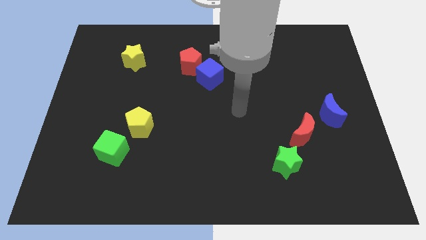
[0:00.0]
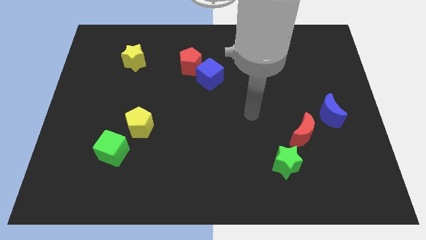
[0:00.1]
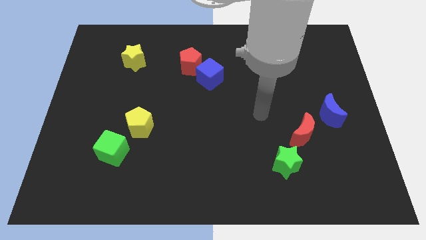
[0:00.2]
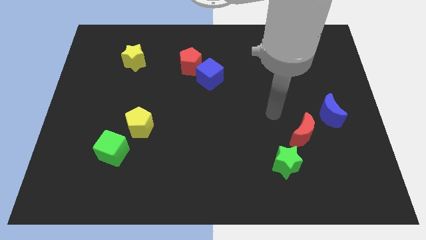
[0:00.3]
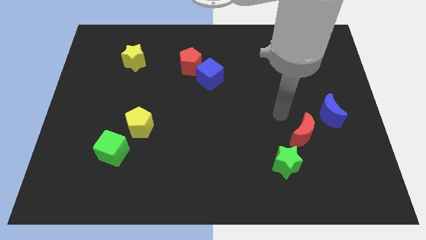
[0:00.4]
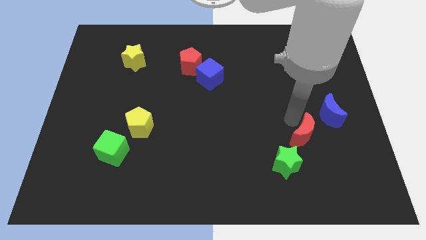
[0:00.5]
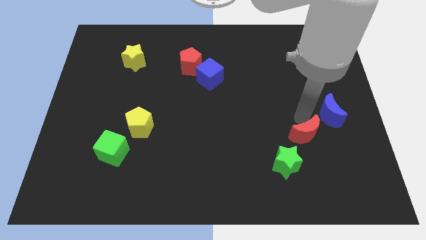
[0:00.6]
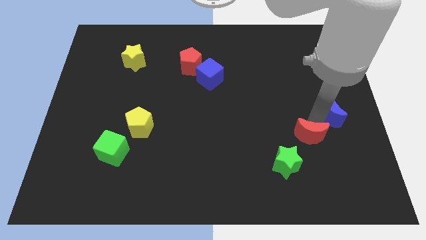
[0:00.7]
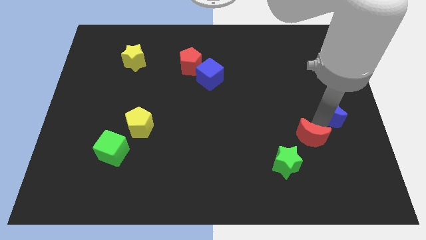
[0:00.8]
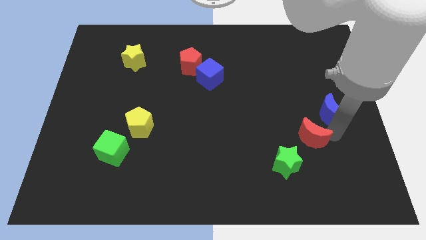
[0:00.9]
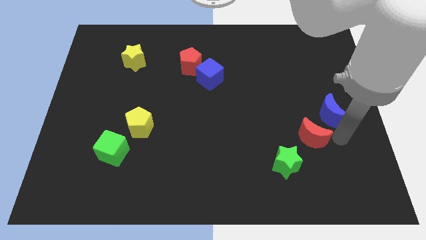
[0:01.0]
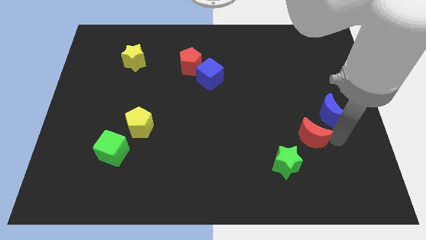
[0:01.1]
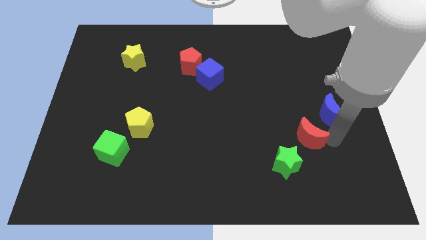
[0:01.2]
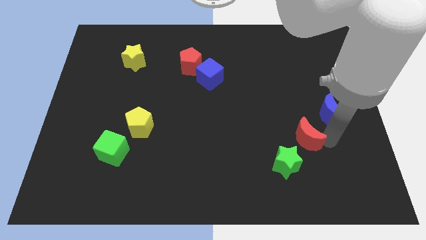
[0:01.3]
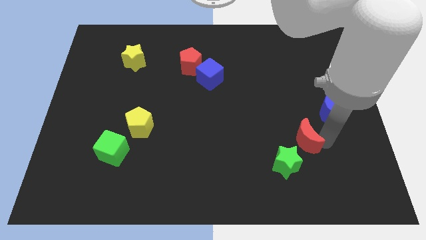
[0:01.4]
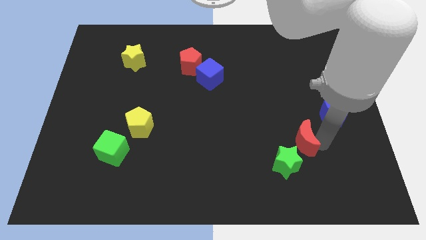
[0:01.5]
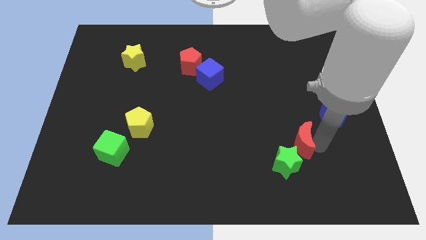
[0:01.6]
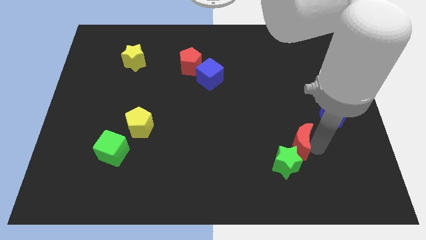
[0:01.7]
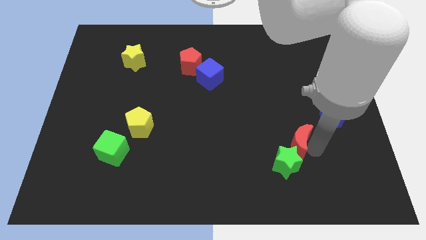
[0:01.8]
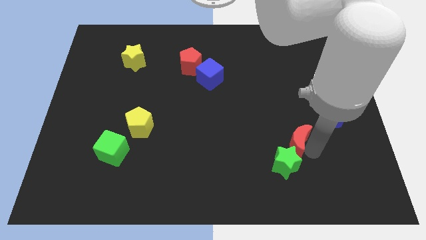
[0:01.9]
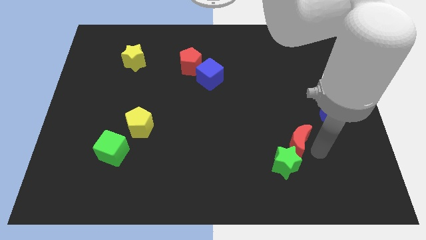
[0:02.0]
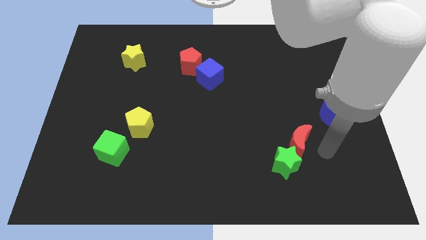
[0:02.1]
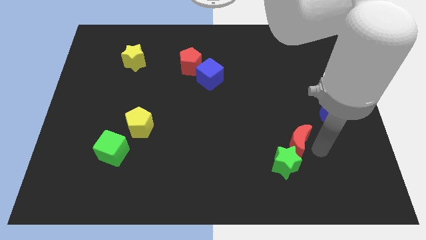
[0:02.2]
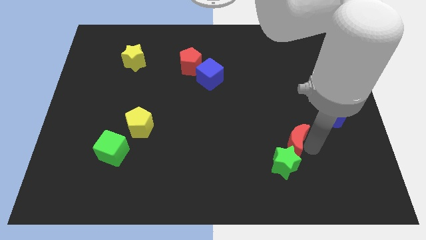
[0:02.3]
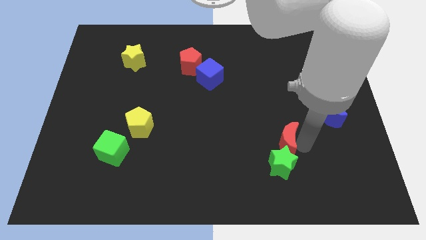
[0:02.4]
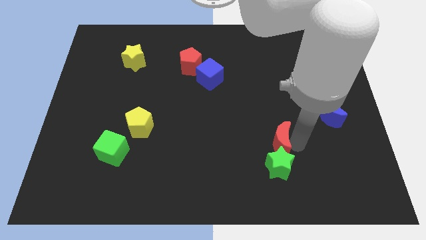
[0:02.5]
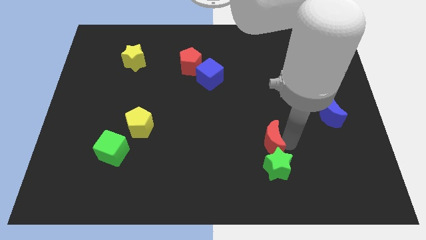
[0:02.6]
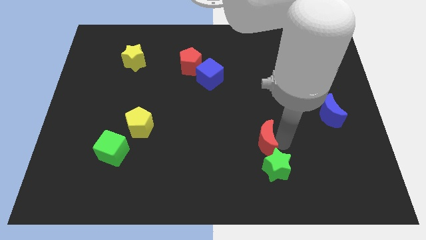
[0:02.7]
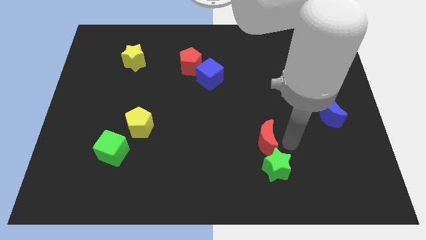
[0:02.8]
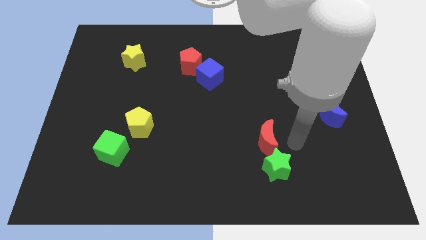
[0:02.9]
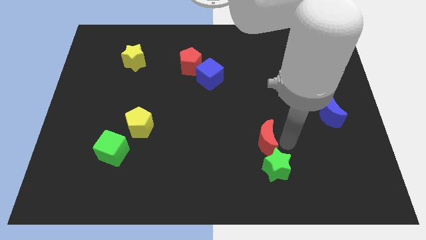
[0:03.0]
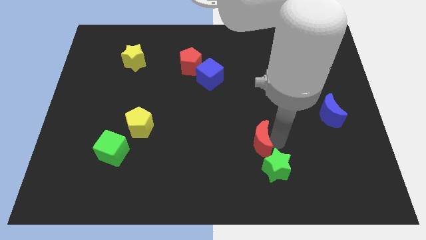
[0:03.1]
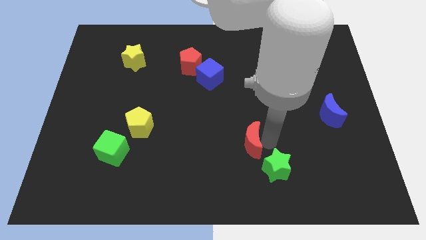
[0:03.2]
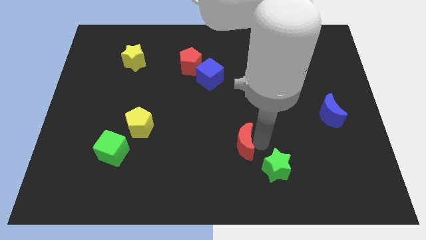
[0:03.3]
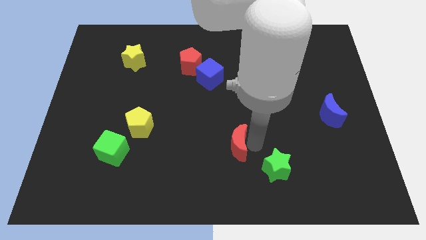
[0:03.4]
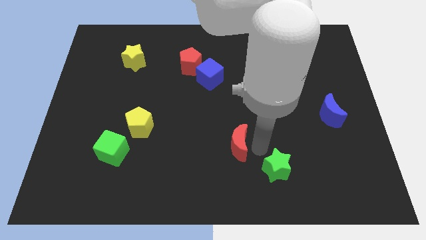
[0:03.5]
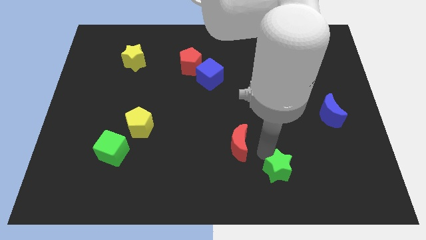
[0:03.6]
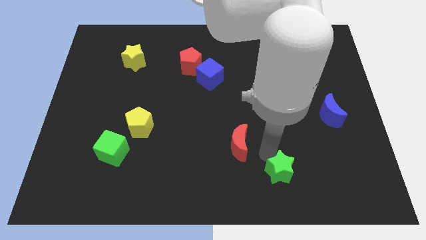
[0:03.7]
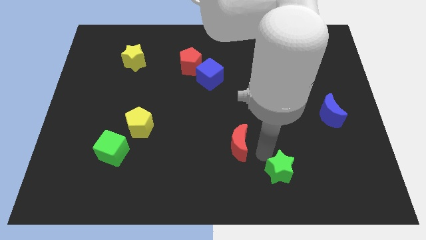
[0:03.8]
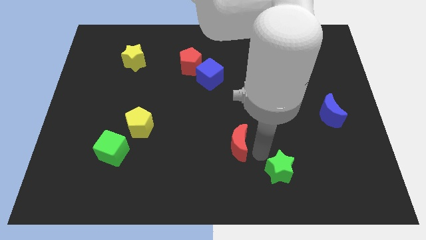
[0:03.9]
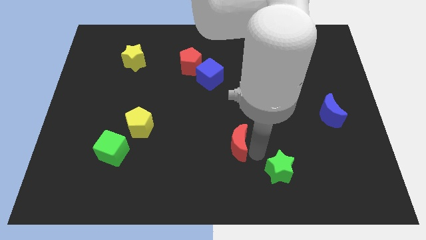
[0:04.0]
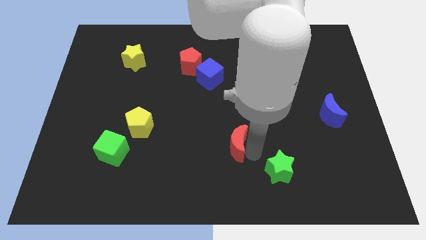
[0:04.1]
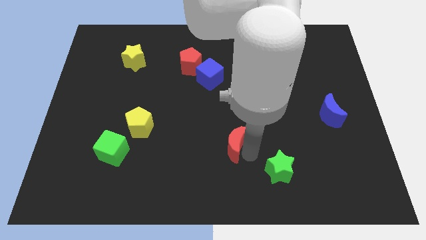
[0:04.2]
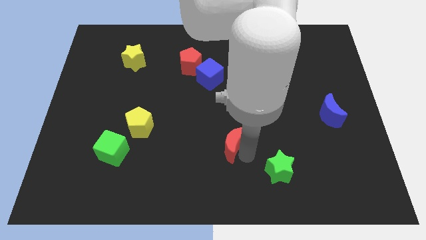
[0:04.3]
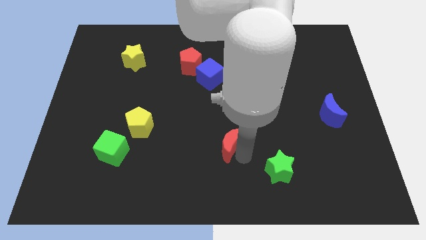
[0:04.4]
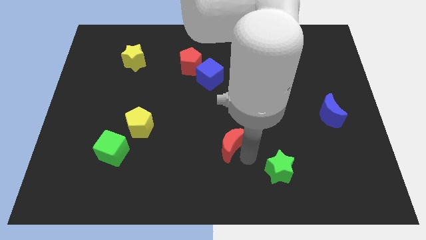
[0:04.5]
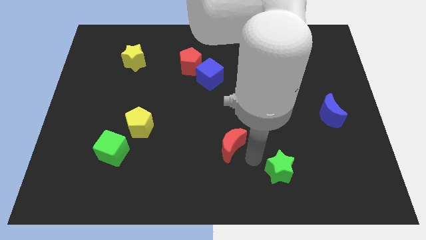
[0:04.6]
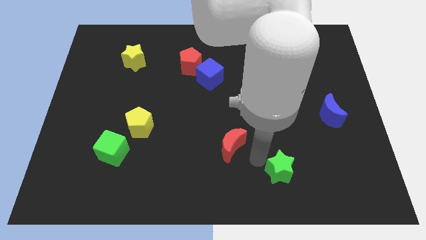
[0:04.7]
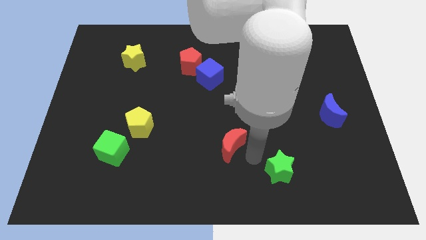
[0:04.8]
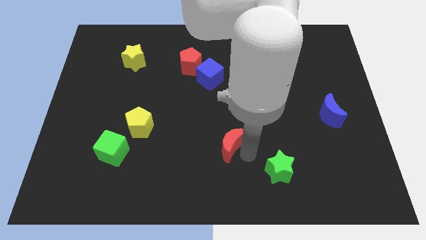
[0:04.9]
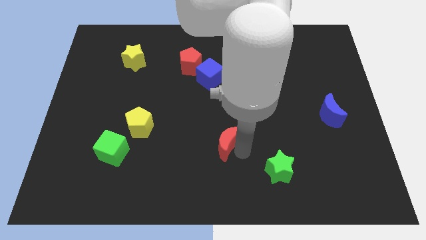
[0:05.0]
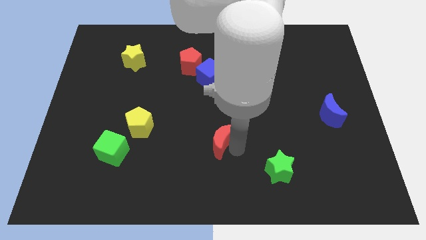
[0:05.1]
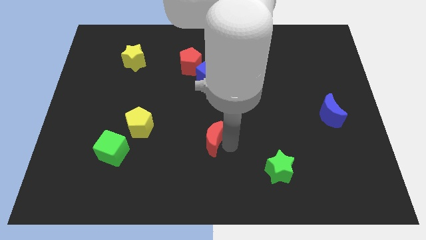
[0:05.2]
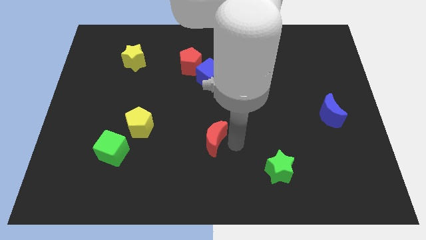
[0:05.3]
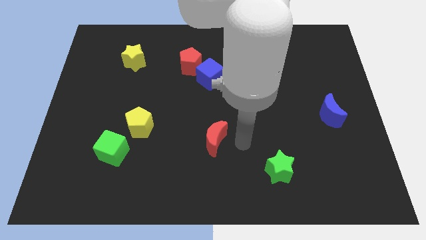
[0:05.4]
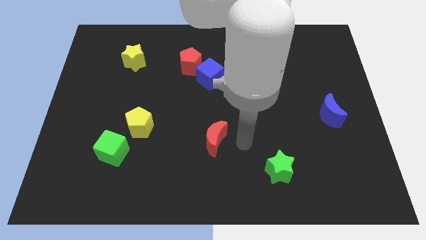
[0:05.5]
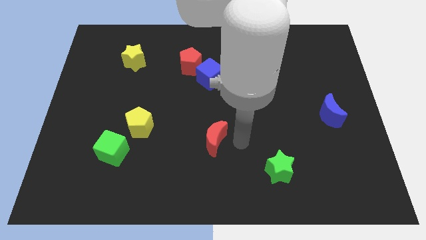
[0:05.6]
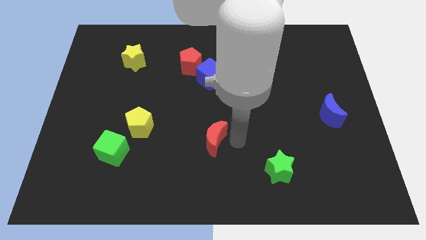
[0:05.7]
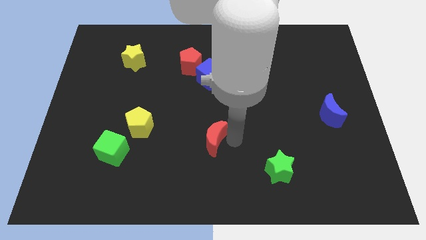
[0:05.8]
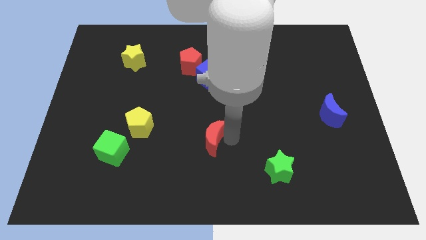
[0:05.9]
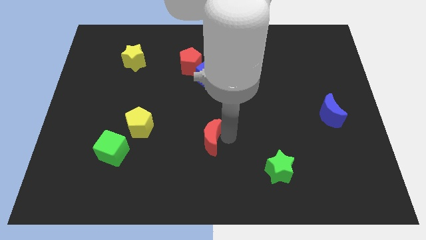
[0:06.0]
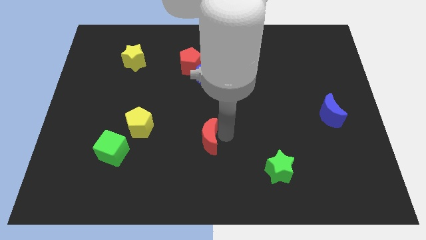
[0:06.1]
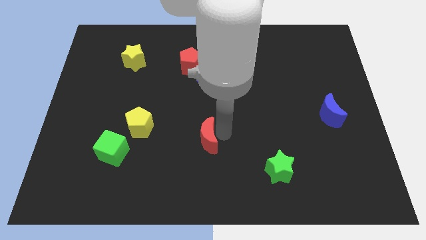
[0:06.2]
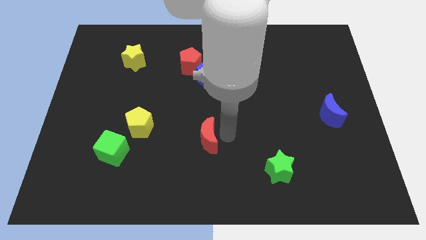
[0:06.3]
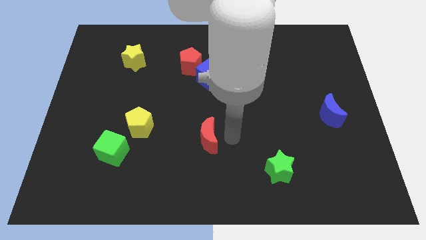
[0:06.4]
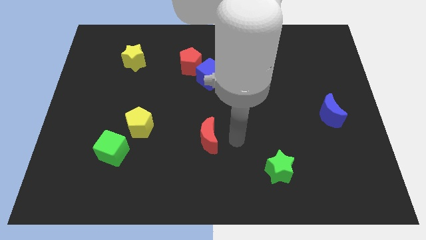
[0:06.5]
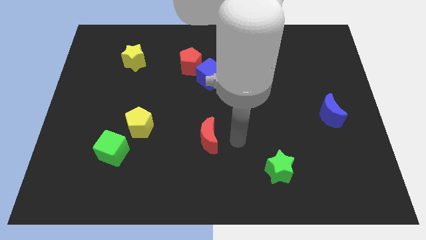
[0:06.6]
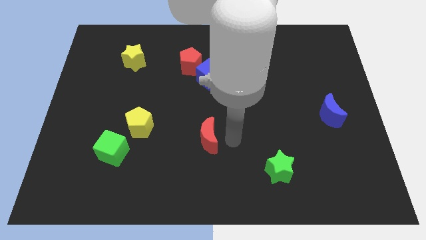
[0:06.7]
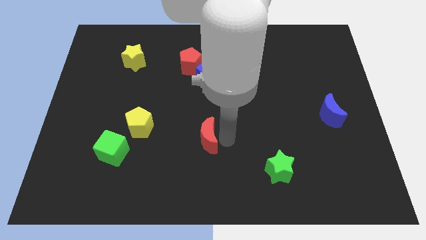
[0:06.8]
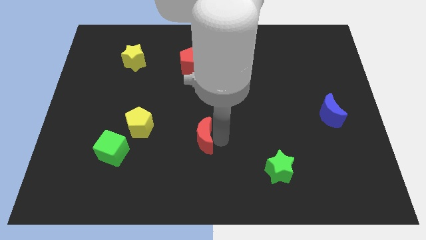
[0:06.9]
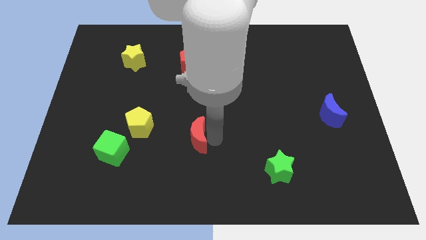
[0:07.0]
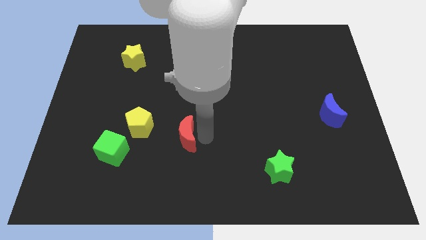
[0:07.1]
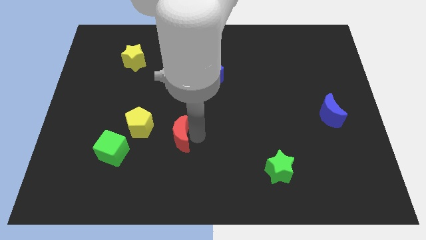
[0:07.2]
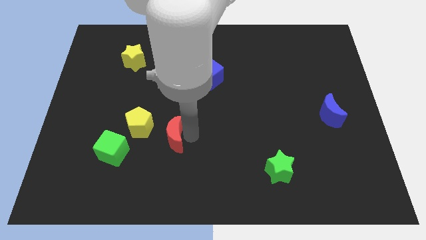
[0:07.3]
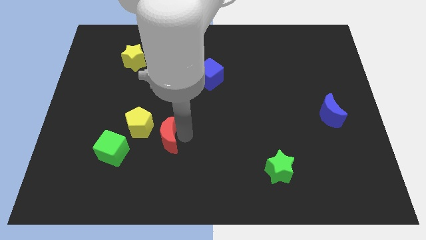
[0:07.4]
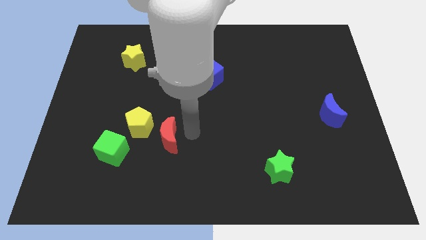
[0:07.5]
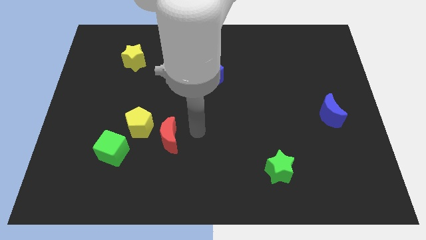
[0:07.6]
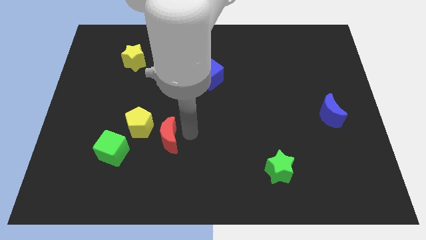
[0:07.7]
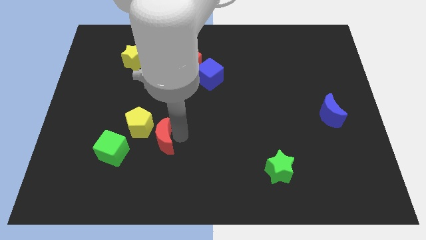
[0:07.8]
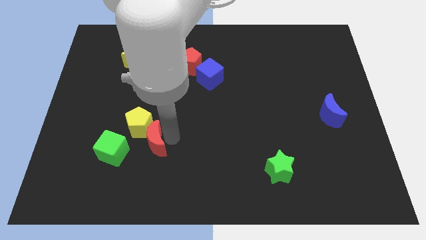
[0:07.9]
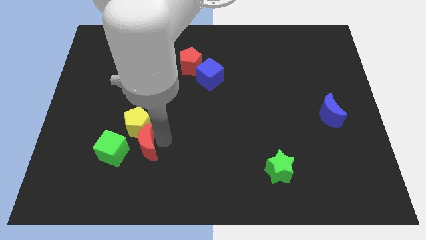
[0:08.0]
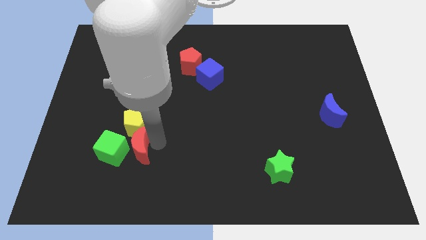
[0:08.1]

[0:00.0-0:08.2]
slide the red moon towards the green cube

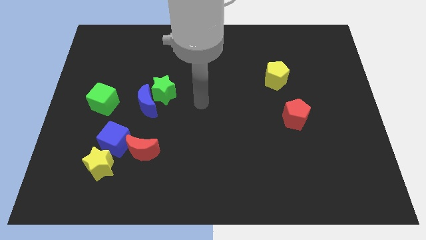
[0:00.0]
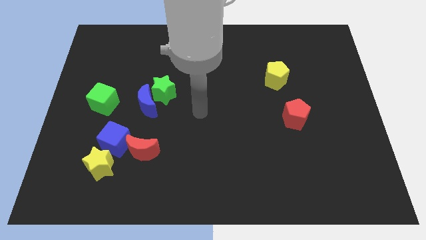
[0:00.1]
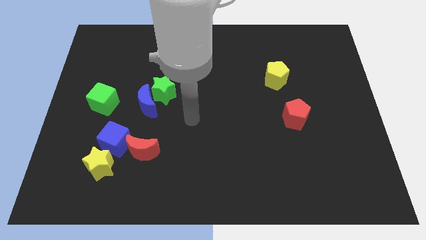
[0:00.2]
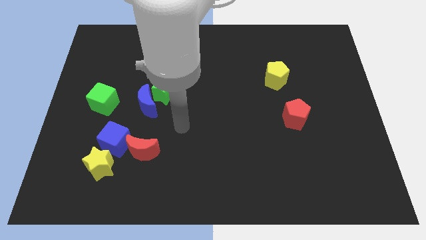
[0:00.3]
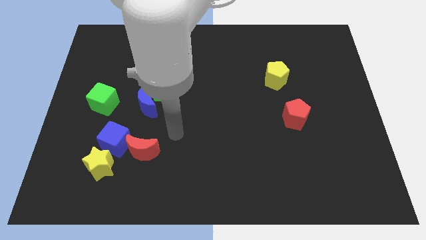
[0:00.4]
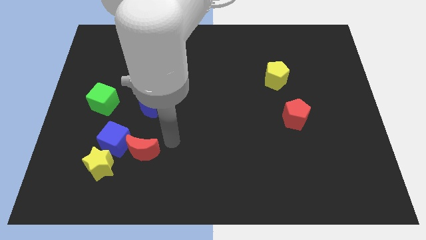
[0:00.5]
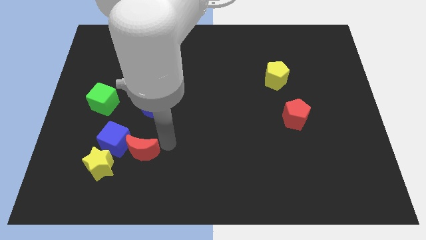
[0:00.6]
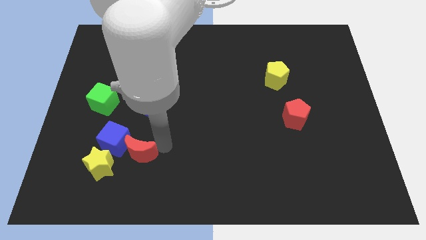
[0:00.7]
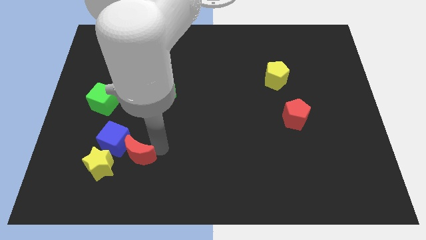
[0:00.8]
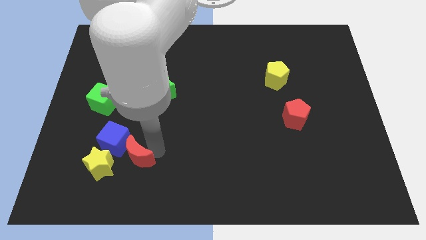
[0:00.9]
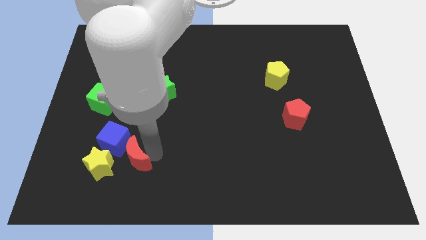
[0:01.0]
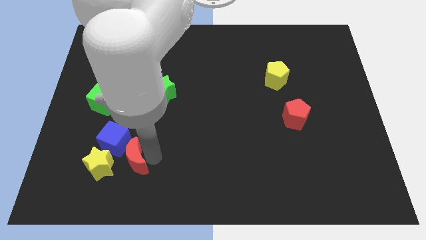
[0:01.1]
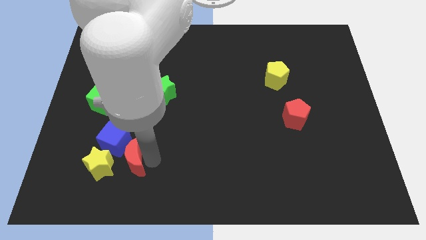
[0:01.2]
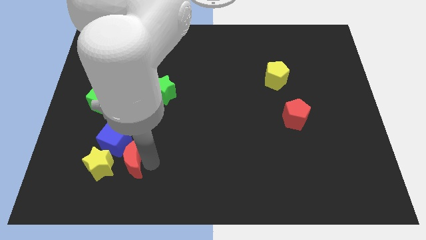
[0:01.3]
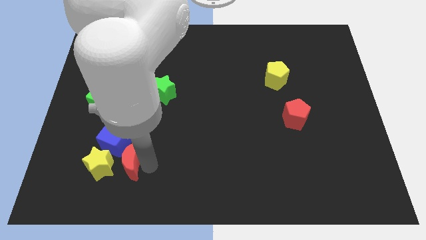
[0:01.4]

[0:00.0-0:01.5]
push the red moon towards the yellow star
